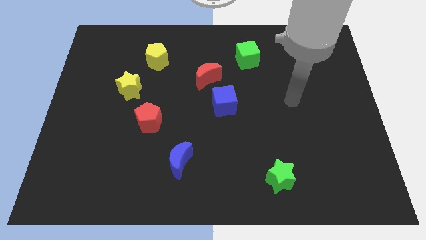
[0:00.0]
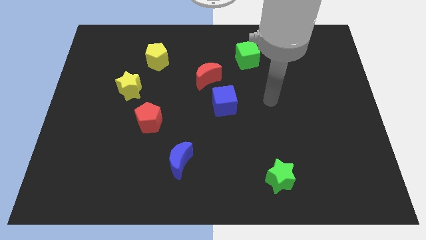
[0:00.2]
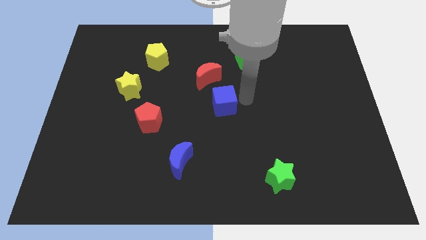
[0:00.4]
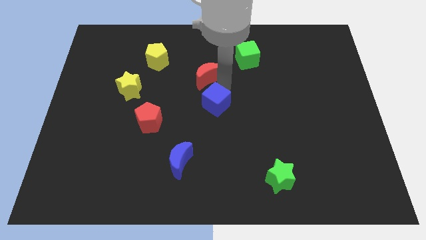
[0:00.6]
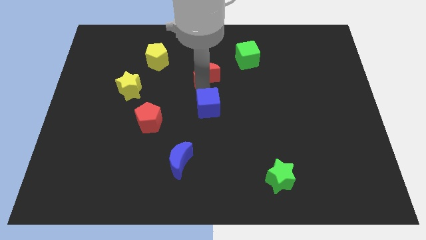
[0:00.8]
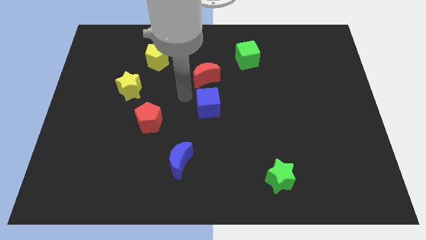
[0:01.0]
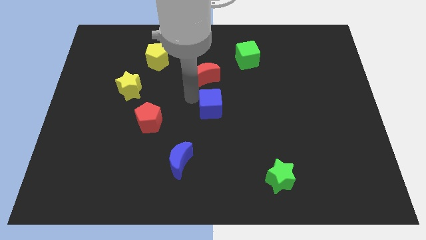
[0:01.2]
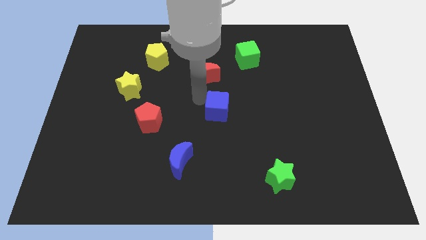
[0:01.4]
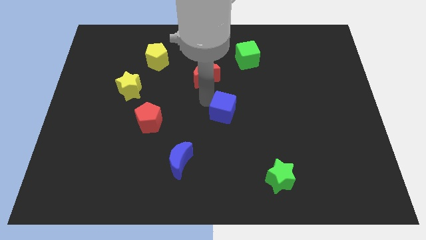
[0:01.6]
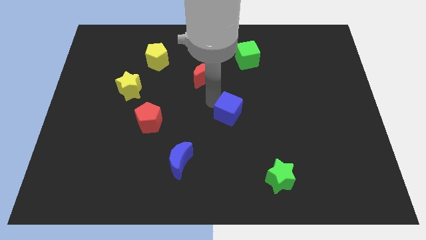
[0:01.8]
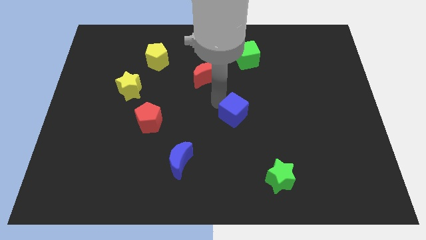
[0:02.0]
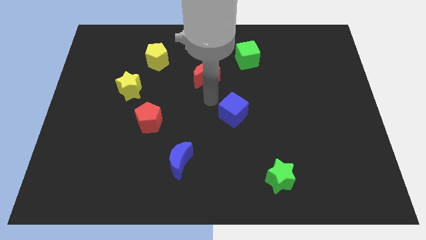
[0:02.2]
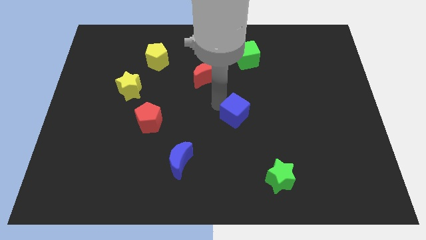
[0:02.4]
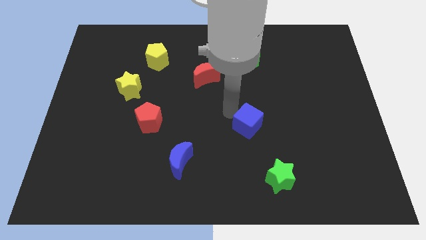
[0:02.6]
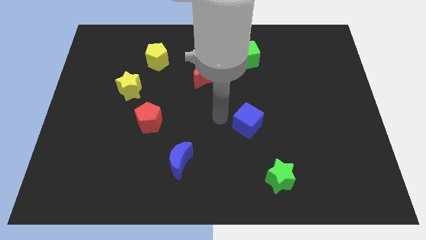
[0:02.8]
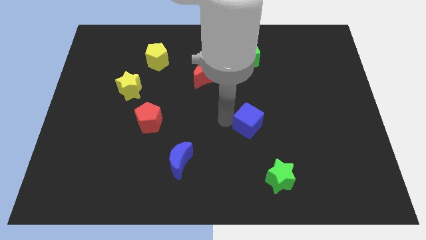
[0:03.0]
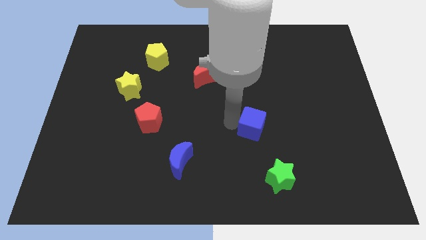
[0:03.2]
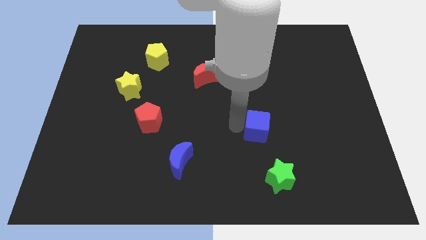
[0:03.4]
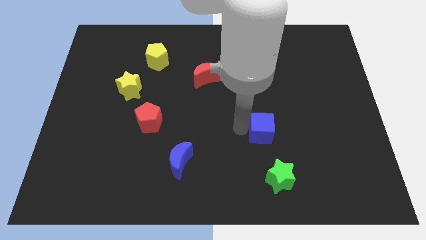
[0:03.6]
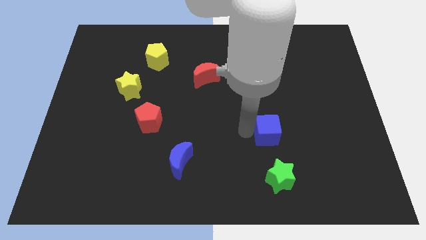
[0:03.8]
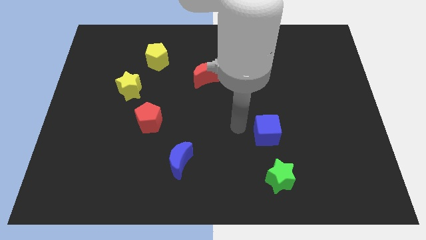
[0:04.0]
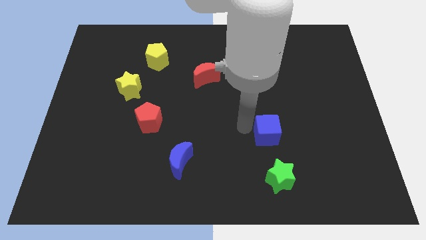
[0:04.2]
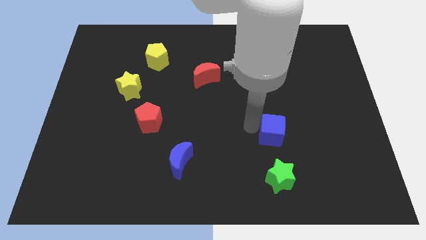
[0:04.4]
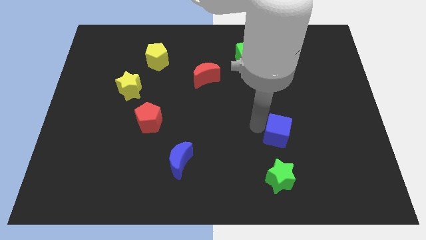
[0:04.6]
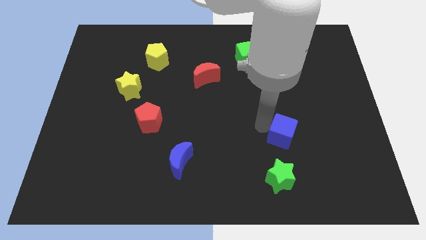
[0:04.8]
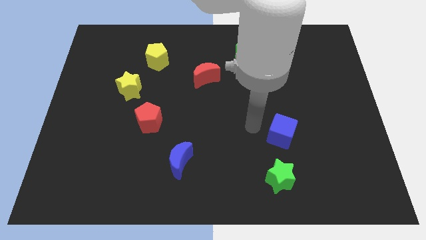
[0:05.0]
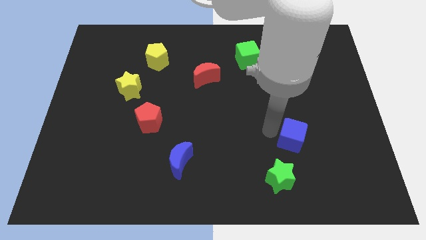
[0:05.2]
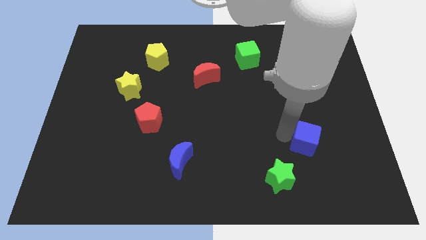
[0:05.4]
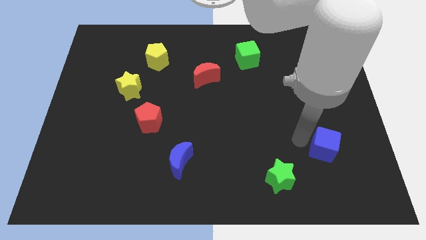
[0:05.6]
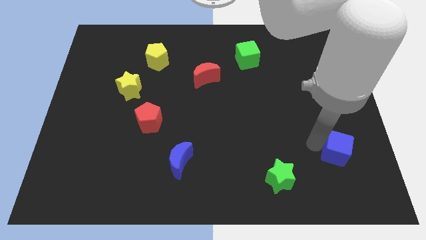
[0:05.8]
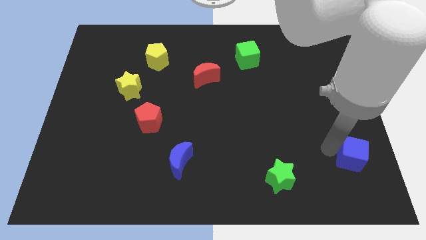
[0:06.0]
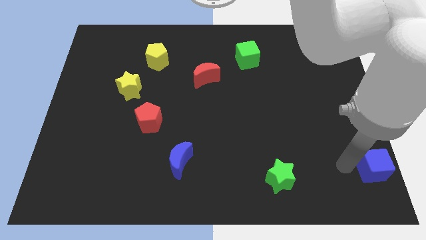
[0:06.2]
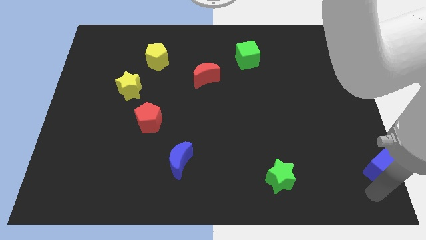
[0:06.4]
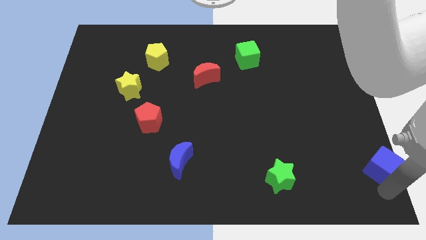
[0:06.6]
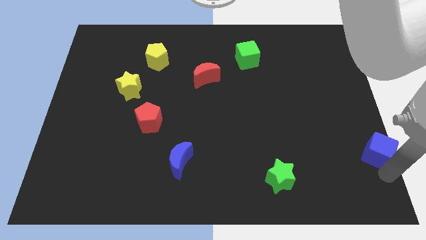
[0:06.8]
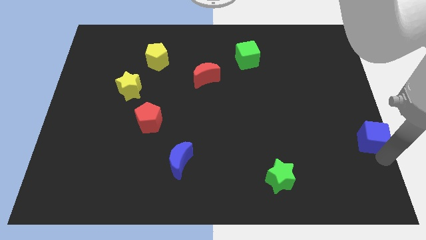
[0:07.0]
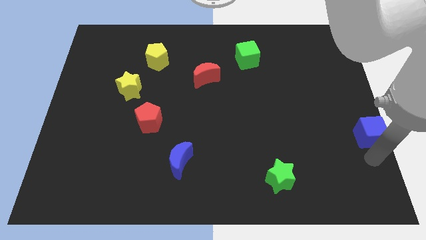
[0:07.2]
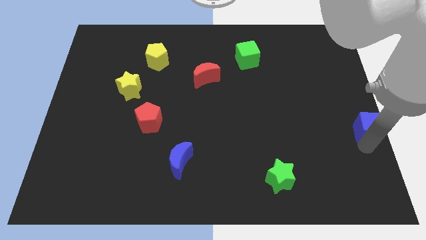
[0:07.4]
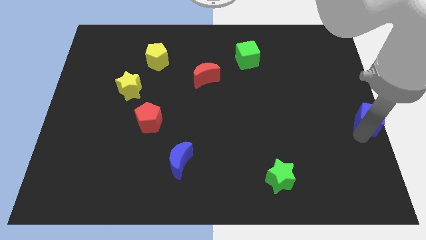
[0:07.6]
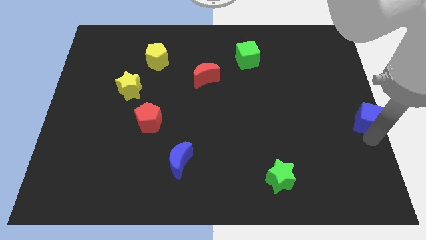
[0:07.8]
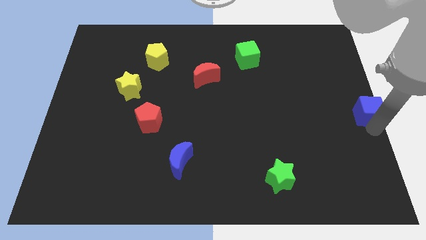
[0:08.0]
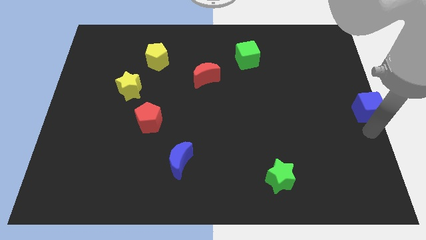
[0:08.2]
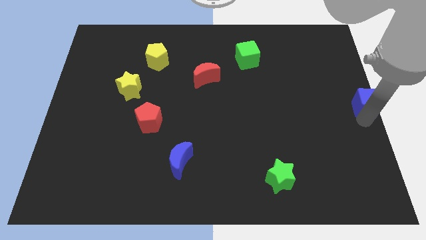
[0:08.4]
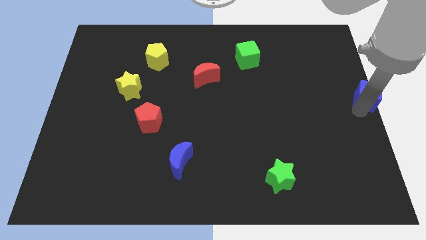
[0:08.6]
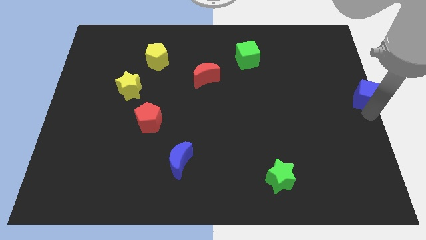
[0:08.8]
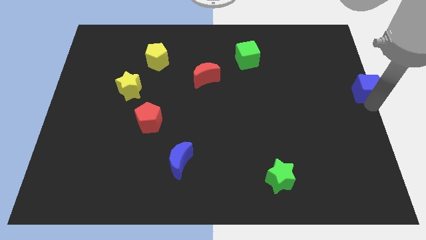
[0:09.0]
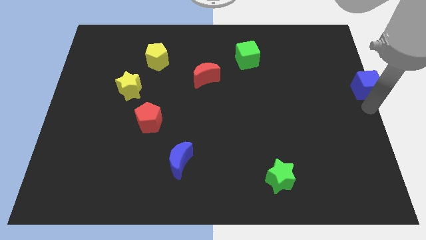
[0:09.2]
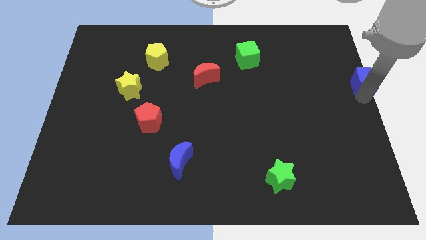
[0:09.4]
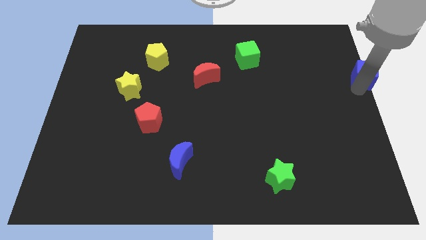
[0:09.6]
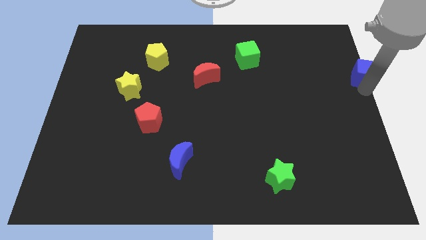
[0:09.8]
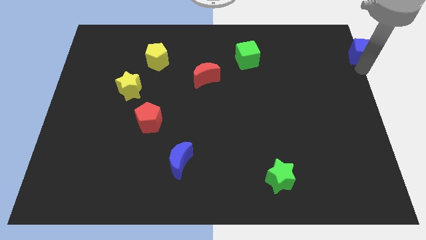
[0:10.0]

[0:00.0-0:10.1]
push the blue cube to the top right corner

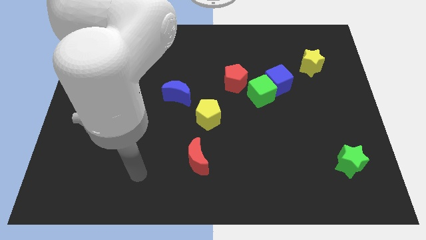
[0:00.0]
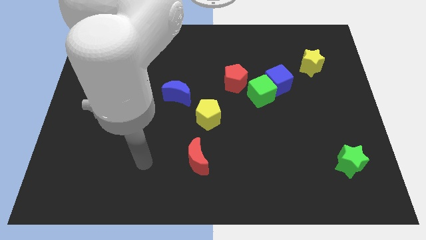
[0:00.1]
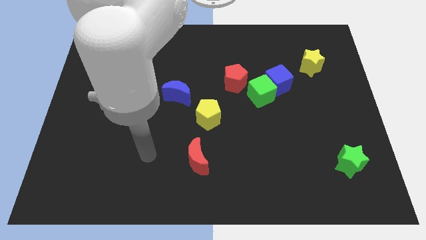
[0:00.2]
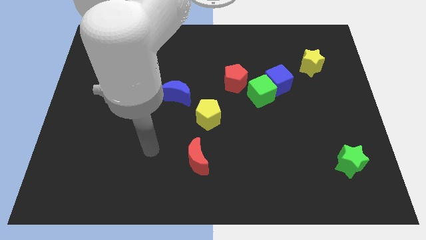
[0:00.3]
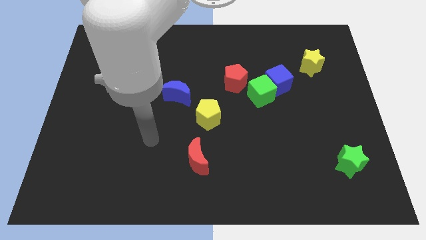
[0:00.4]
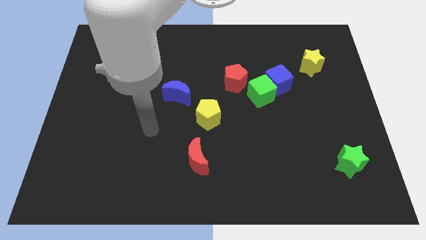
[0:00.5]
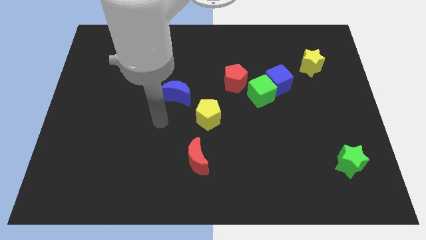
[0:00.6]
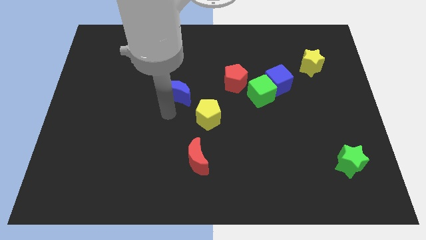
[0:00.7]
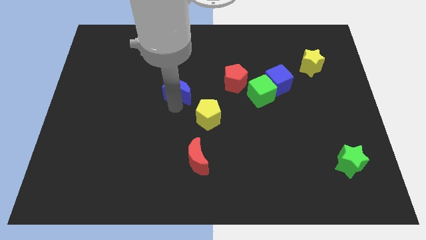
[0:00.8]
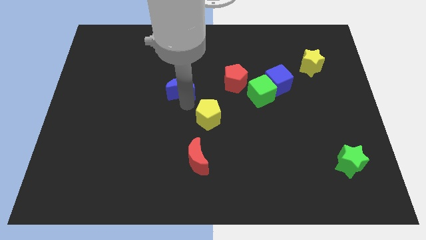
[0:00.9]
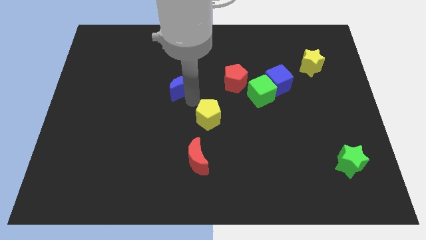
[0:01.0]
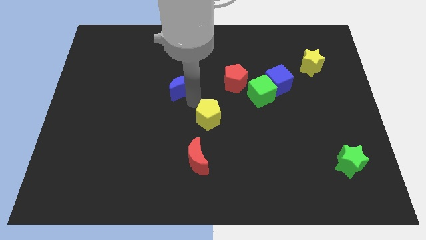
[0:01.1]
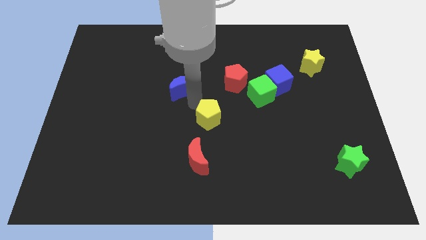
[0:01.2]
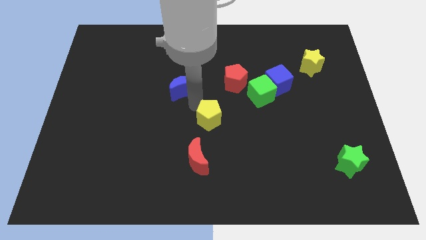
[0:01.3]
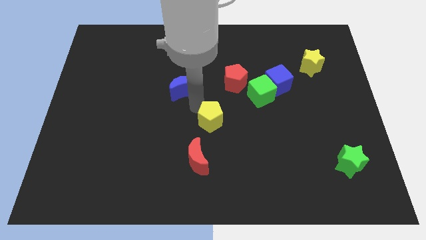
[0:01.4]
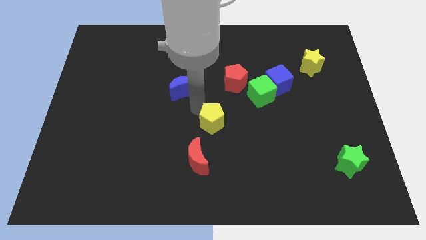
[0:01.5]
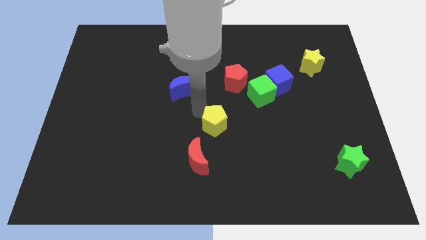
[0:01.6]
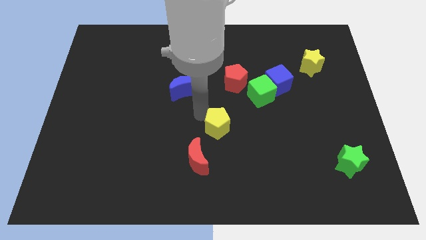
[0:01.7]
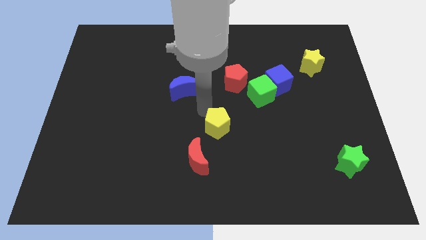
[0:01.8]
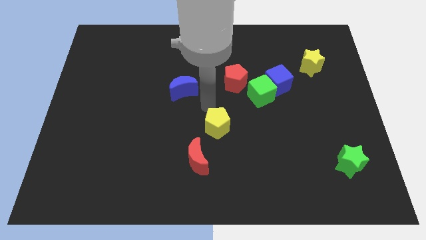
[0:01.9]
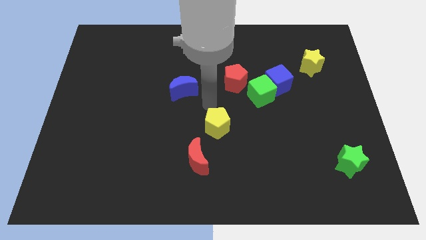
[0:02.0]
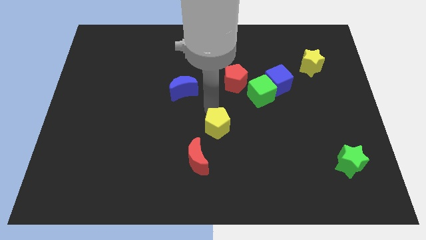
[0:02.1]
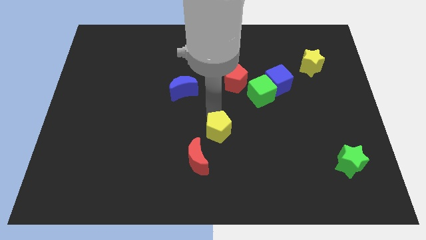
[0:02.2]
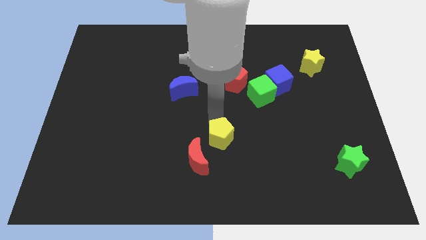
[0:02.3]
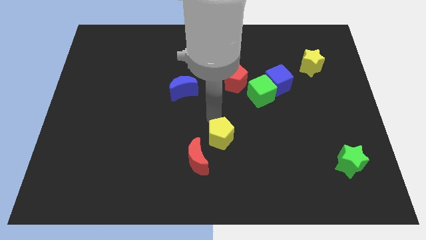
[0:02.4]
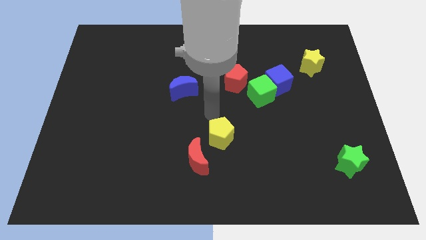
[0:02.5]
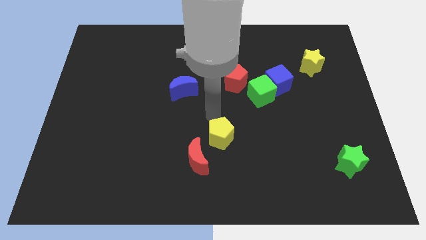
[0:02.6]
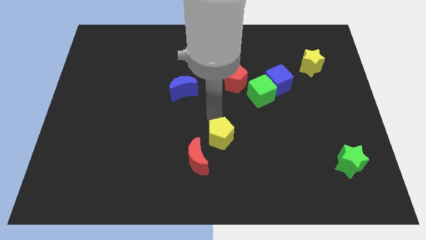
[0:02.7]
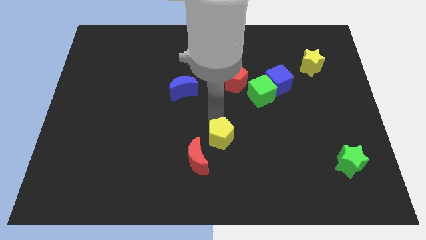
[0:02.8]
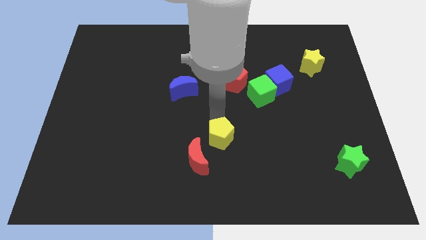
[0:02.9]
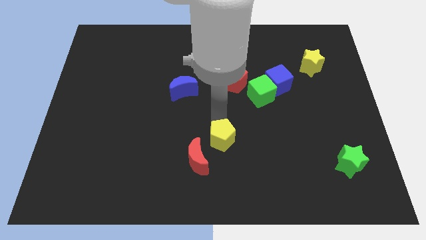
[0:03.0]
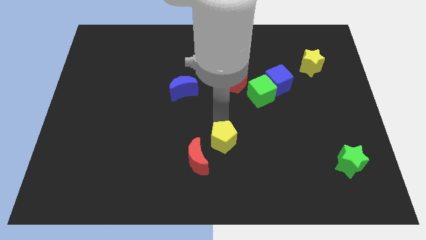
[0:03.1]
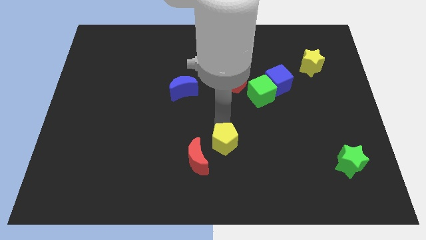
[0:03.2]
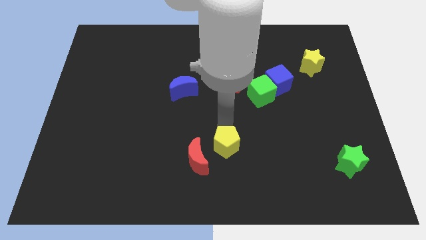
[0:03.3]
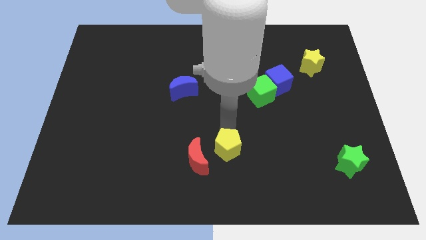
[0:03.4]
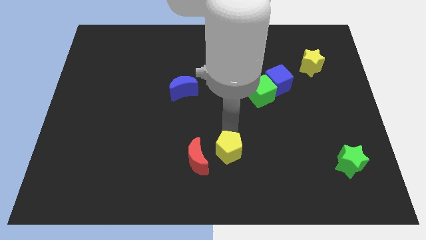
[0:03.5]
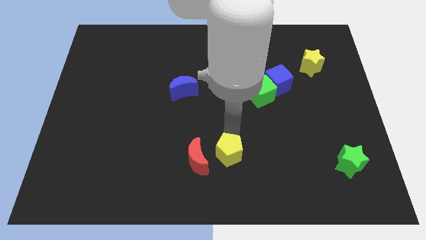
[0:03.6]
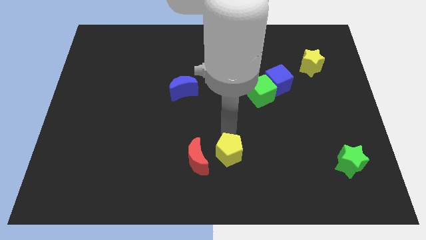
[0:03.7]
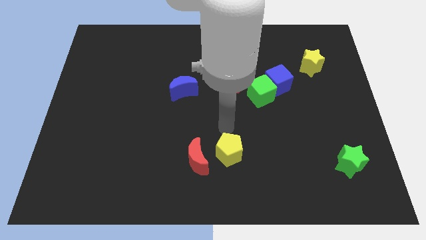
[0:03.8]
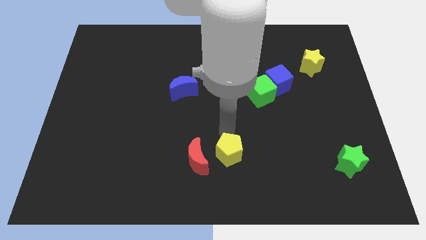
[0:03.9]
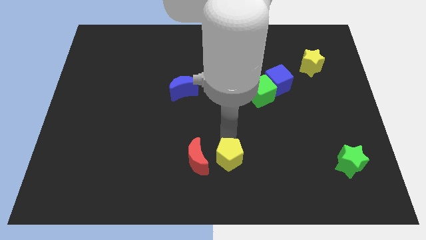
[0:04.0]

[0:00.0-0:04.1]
slide the yellow pentagon to the bottom side
